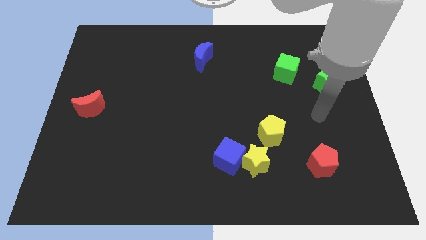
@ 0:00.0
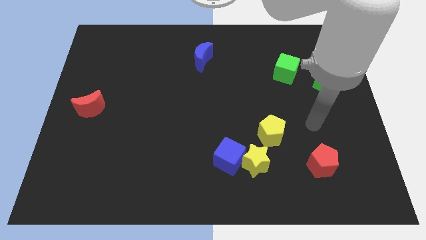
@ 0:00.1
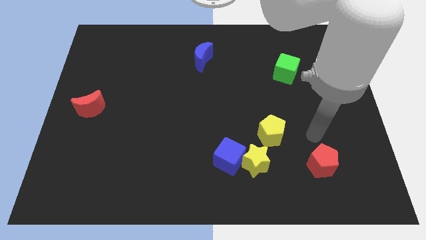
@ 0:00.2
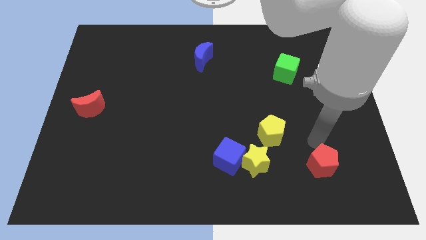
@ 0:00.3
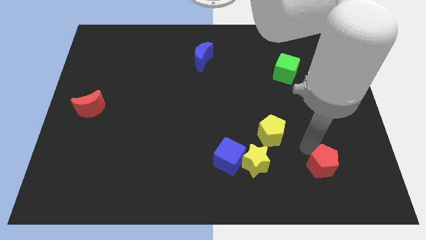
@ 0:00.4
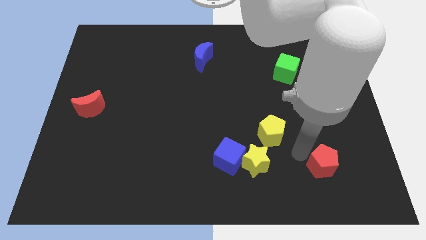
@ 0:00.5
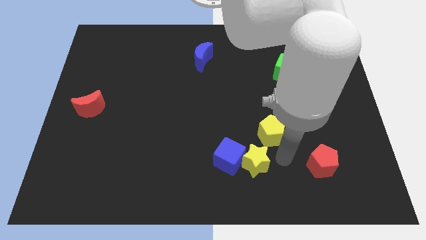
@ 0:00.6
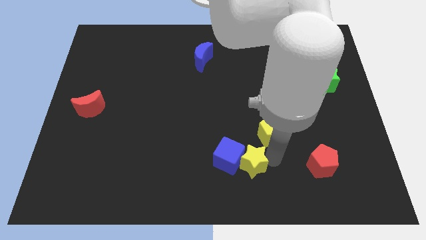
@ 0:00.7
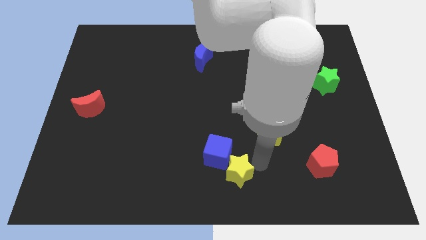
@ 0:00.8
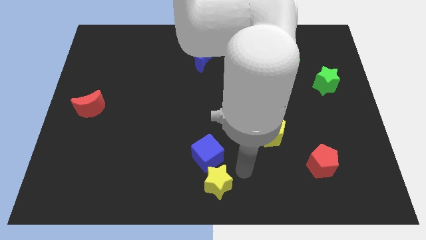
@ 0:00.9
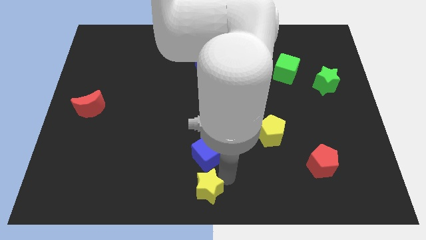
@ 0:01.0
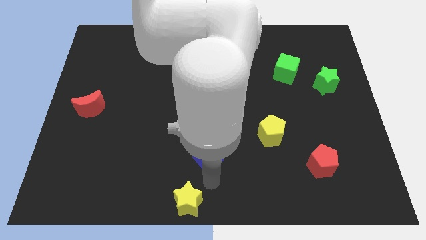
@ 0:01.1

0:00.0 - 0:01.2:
move the blue cube away from the yellow star

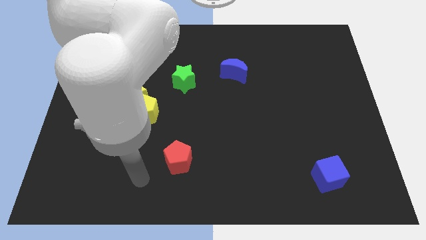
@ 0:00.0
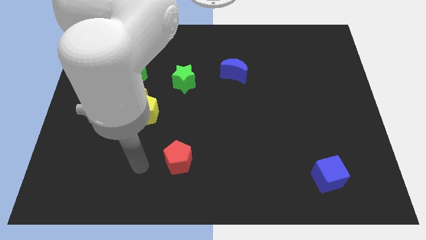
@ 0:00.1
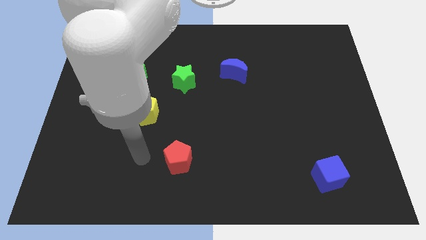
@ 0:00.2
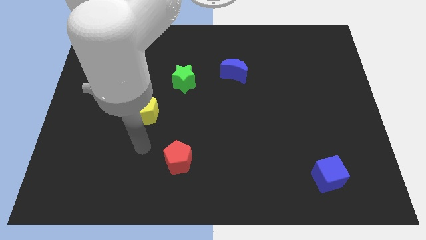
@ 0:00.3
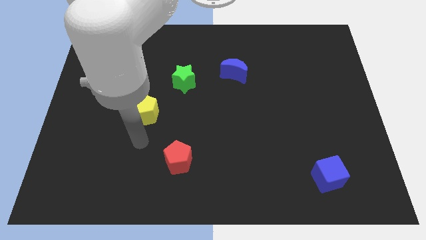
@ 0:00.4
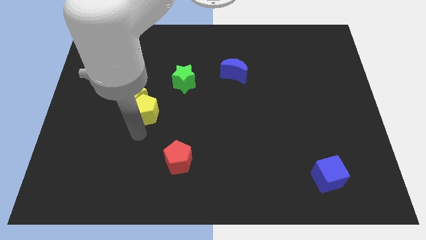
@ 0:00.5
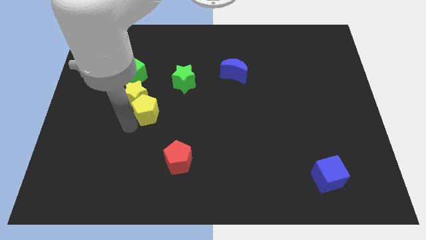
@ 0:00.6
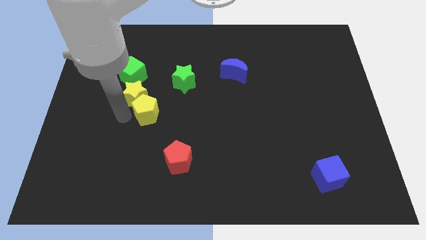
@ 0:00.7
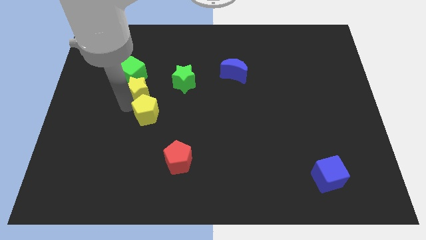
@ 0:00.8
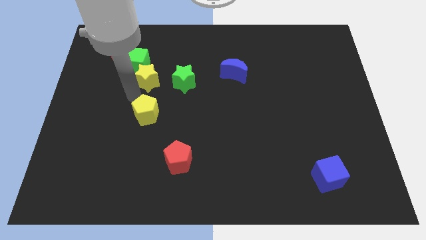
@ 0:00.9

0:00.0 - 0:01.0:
pull the yellow pentagon apart from the yellow star

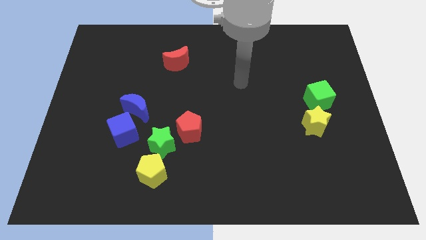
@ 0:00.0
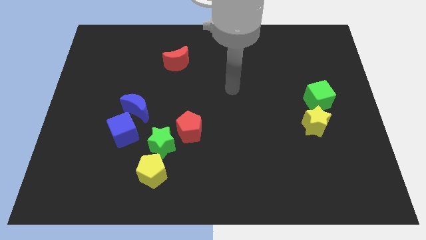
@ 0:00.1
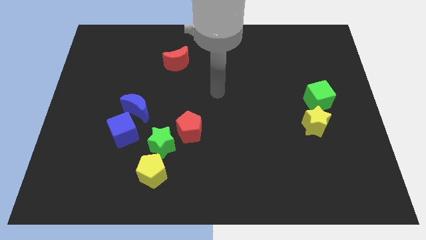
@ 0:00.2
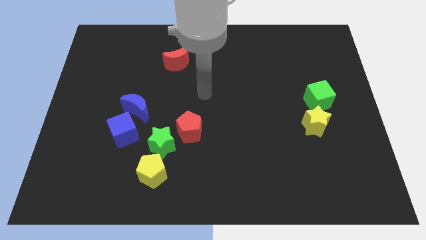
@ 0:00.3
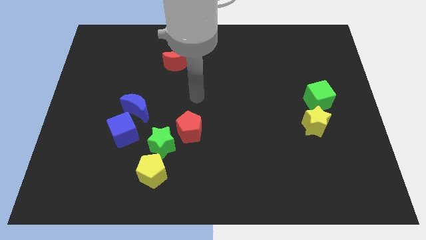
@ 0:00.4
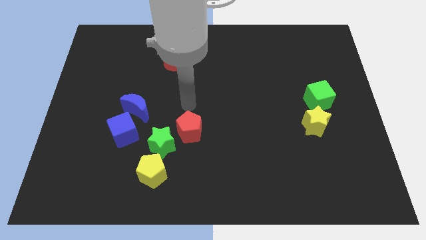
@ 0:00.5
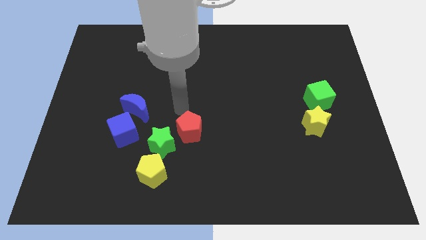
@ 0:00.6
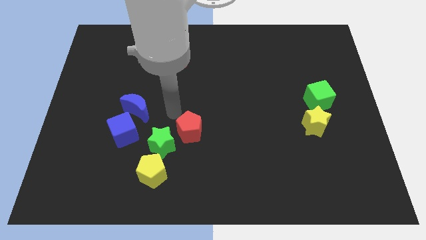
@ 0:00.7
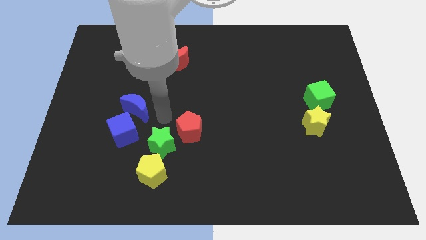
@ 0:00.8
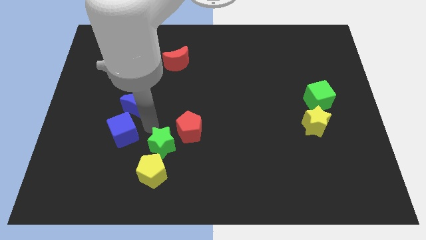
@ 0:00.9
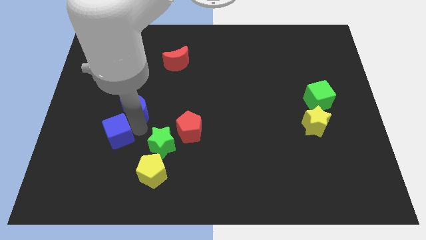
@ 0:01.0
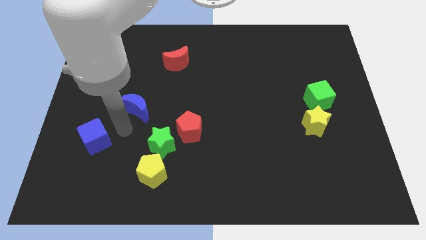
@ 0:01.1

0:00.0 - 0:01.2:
separate the blue moon from the blue cube

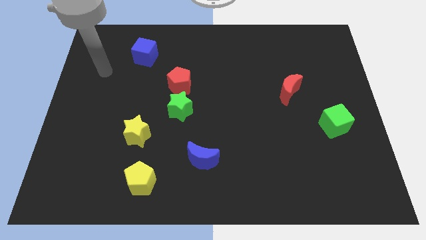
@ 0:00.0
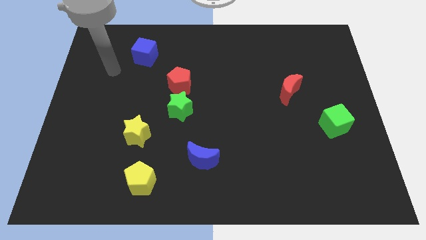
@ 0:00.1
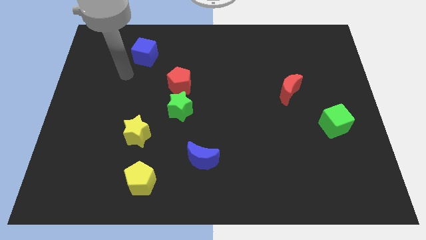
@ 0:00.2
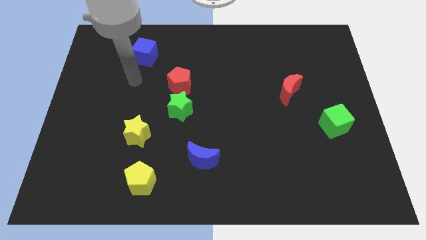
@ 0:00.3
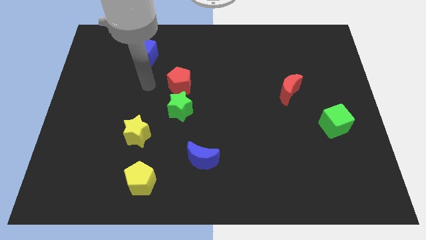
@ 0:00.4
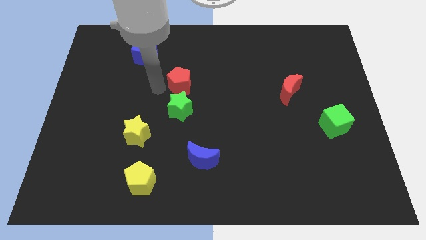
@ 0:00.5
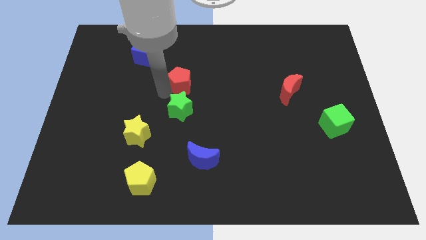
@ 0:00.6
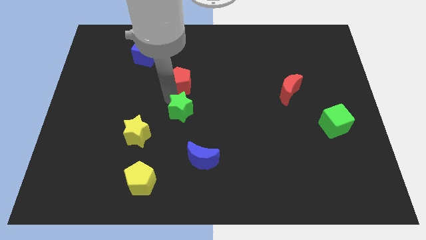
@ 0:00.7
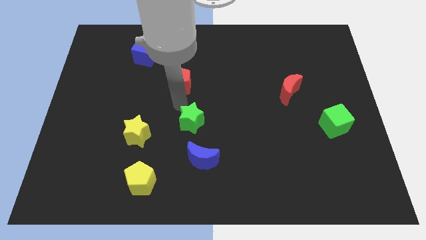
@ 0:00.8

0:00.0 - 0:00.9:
move the red pentagon away from the green star

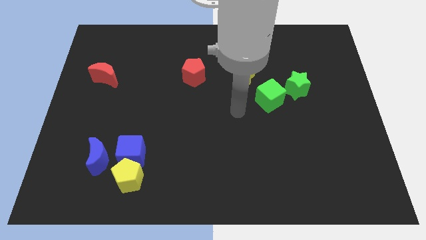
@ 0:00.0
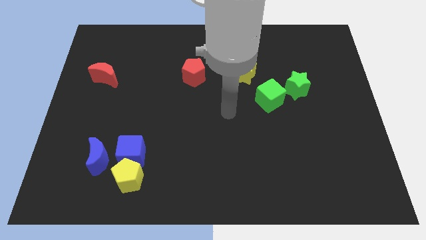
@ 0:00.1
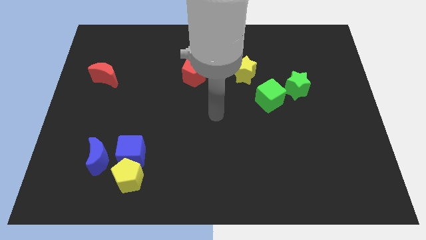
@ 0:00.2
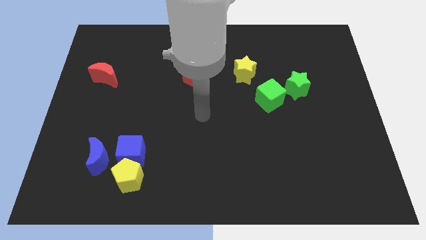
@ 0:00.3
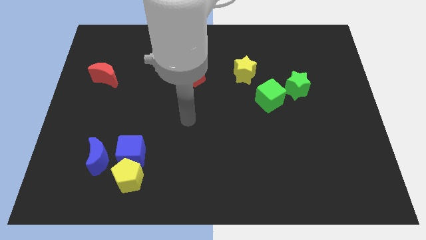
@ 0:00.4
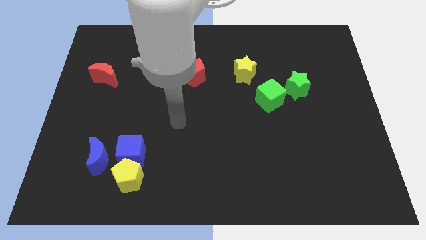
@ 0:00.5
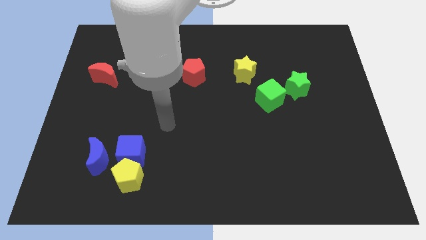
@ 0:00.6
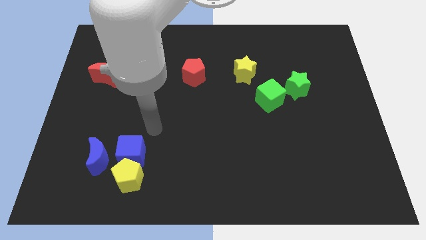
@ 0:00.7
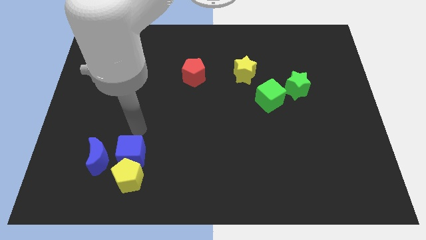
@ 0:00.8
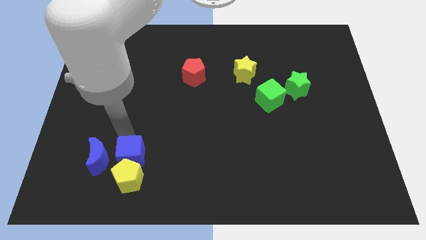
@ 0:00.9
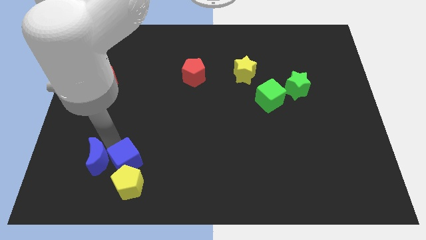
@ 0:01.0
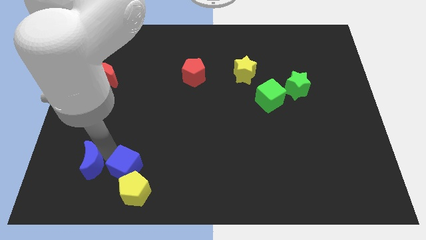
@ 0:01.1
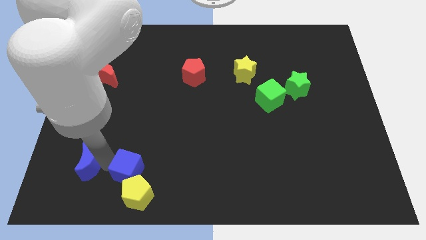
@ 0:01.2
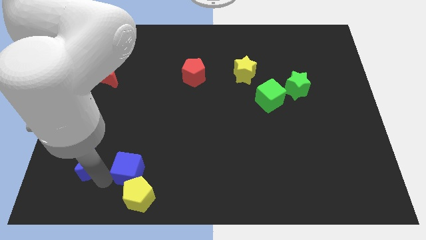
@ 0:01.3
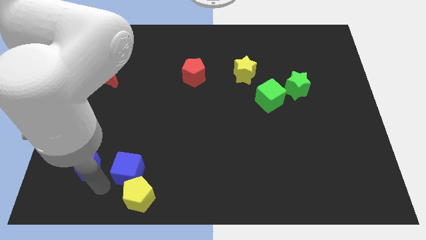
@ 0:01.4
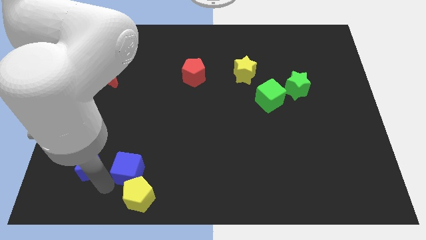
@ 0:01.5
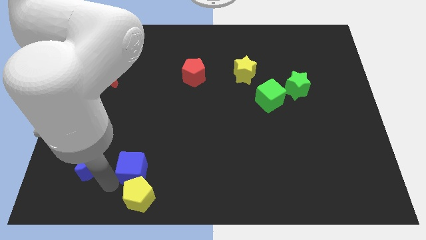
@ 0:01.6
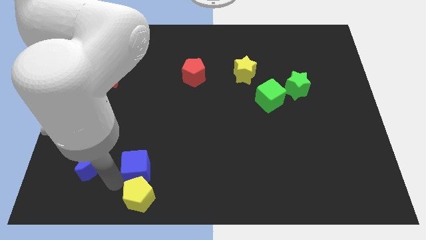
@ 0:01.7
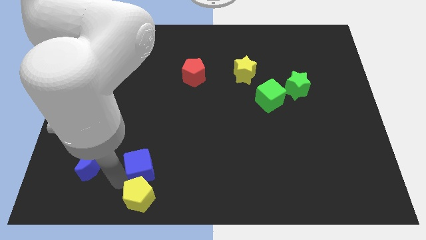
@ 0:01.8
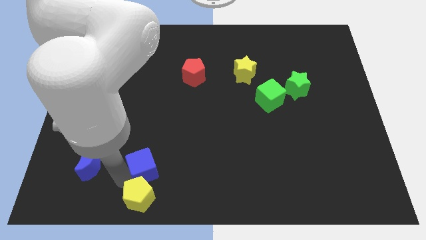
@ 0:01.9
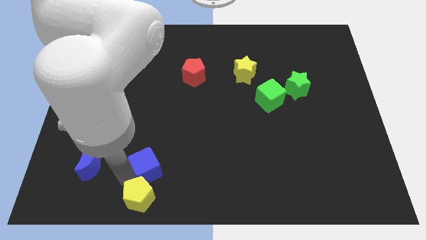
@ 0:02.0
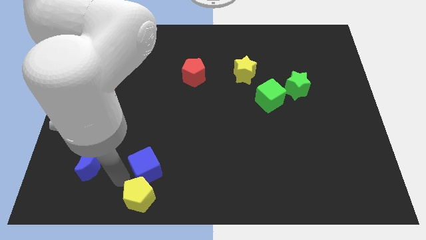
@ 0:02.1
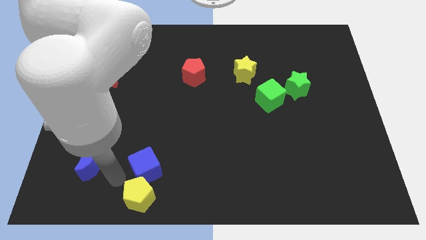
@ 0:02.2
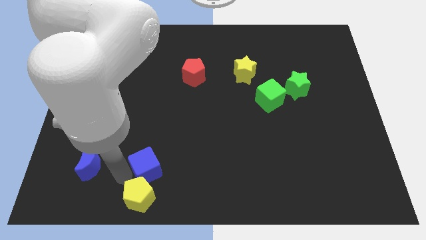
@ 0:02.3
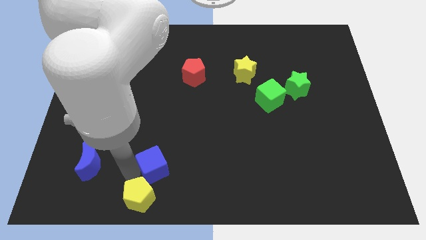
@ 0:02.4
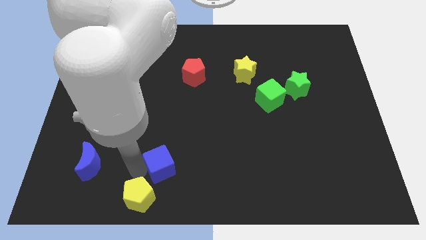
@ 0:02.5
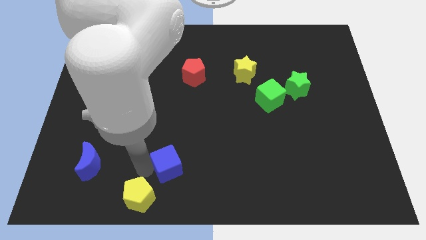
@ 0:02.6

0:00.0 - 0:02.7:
move the blue cube away from the yellow pentagon and blue moon

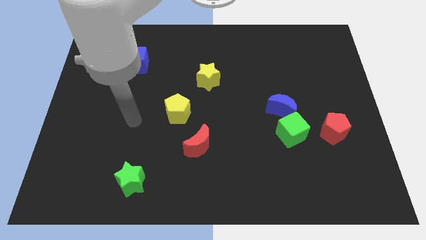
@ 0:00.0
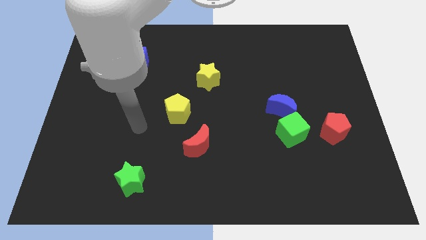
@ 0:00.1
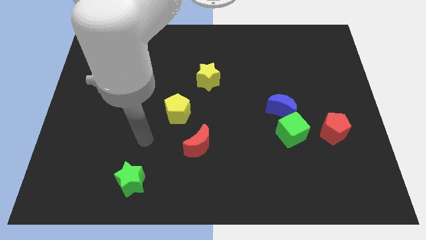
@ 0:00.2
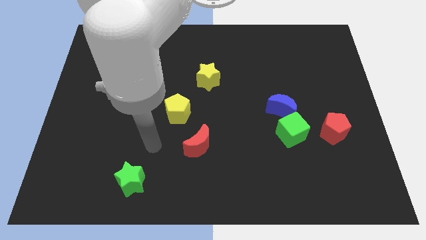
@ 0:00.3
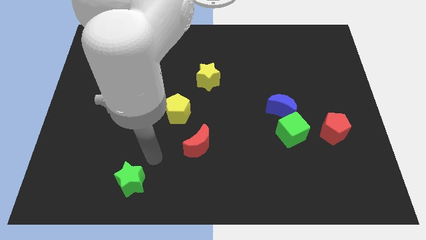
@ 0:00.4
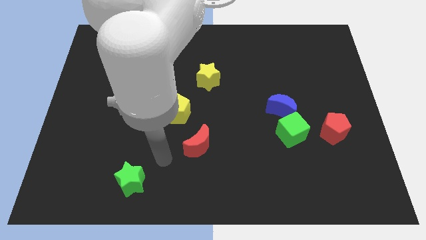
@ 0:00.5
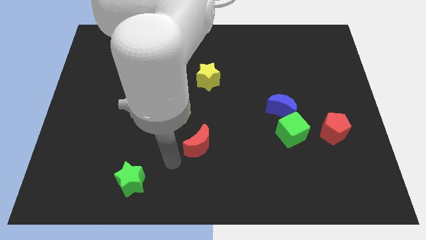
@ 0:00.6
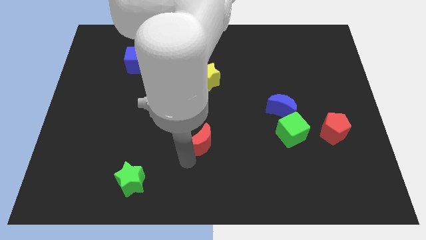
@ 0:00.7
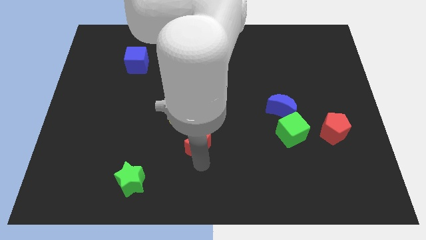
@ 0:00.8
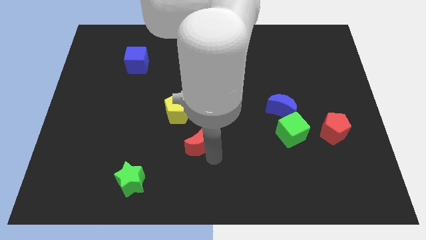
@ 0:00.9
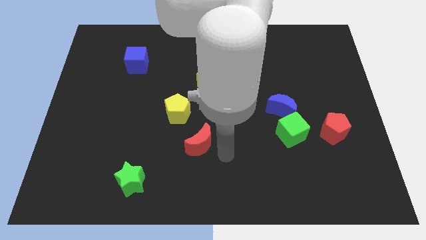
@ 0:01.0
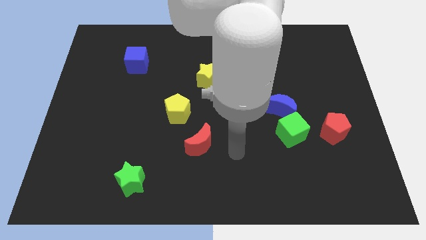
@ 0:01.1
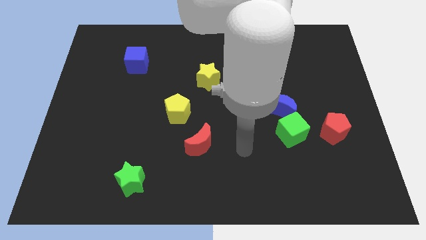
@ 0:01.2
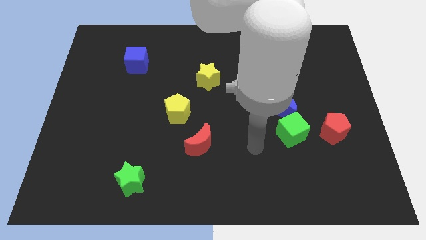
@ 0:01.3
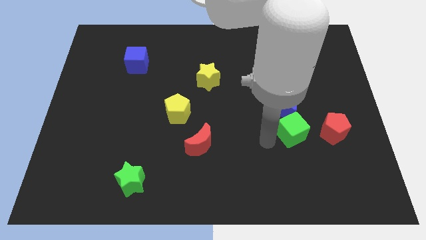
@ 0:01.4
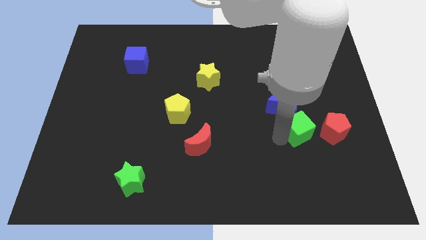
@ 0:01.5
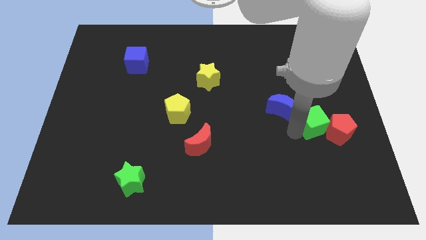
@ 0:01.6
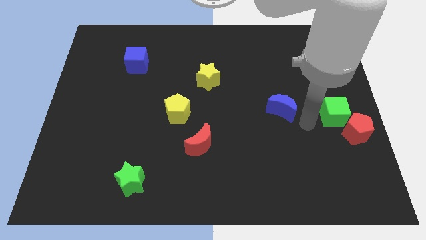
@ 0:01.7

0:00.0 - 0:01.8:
pull the blue moon apart from the green cube

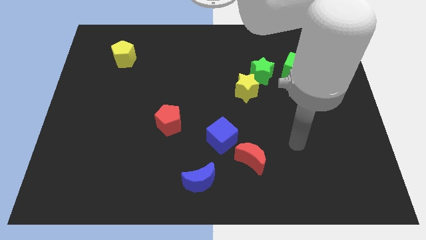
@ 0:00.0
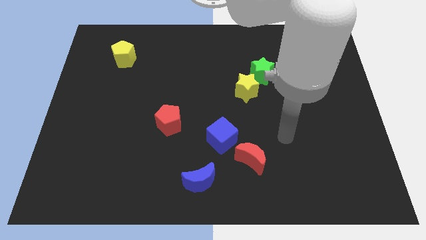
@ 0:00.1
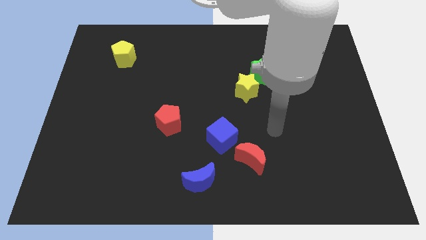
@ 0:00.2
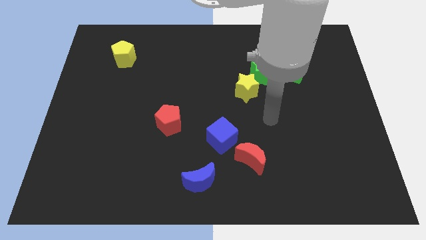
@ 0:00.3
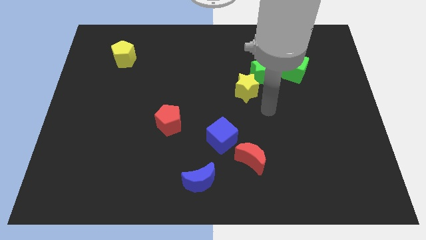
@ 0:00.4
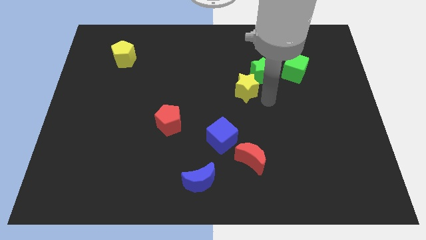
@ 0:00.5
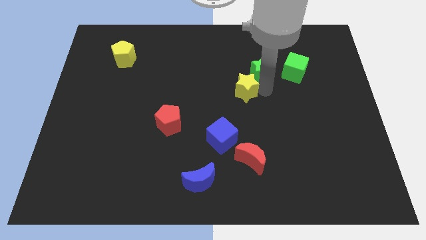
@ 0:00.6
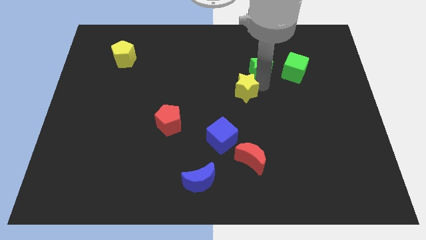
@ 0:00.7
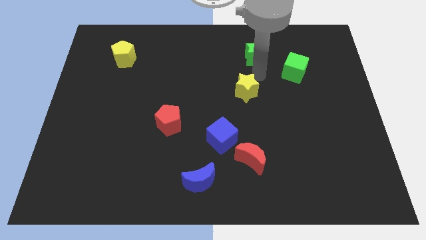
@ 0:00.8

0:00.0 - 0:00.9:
separate the yellow star from the green star
